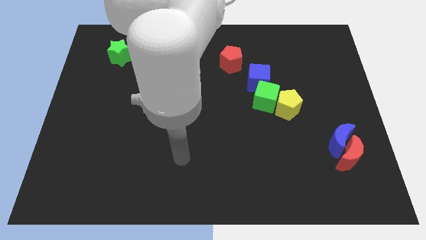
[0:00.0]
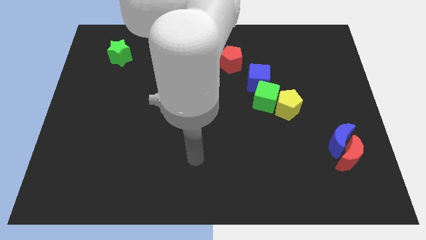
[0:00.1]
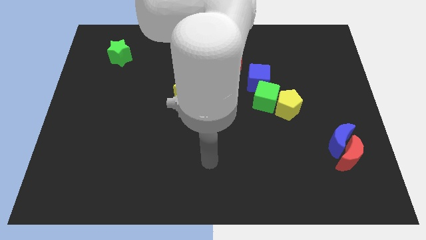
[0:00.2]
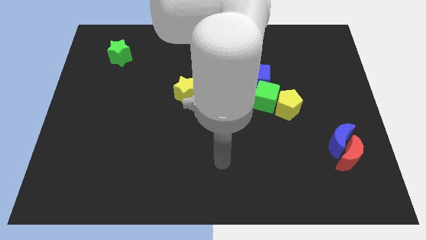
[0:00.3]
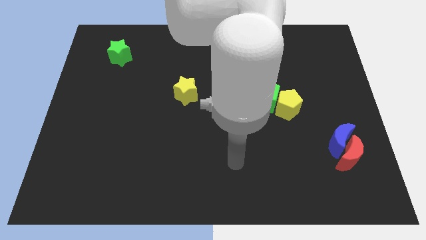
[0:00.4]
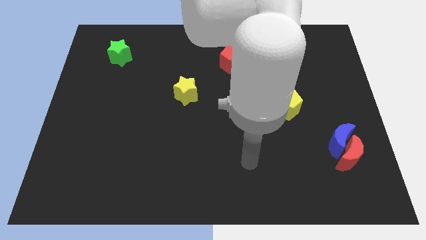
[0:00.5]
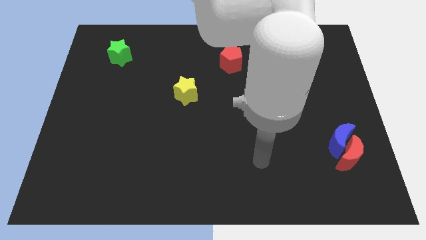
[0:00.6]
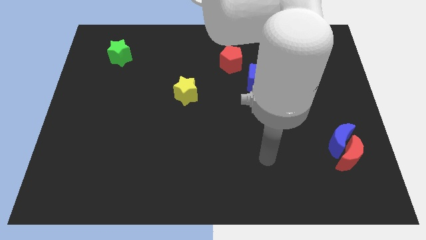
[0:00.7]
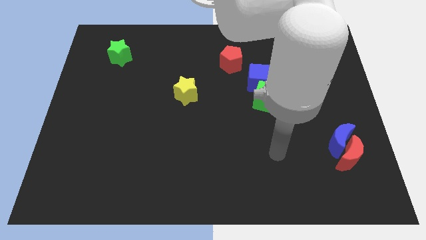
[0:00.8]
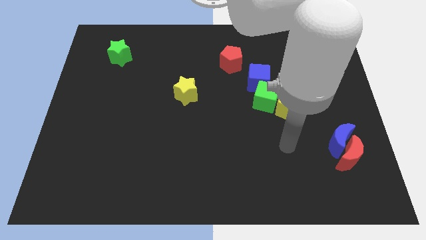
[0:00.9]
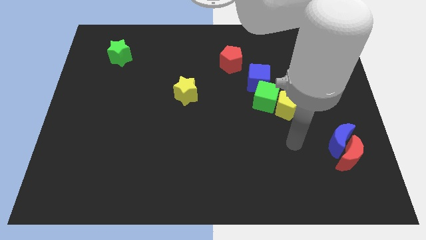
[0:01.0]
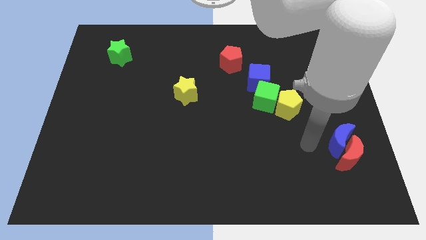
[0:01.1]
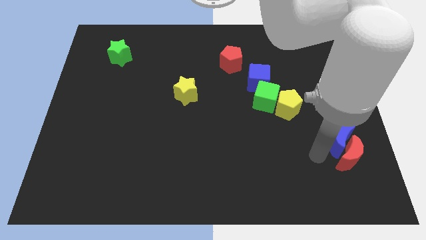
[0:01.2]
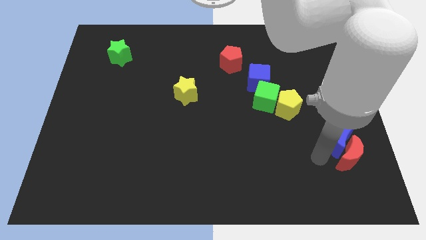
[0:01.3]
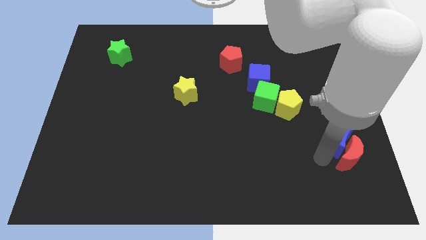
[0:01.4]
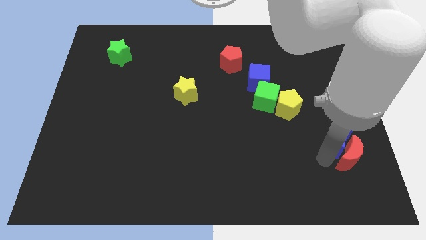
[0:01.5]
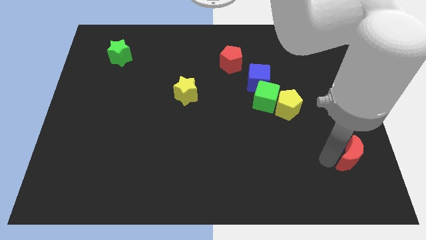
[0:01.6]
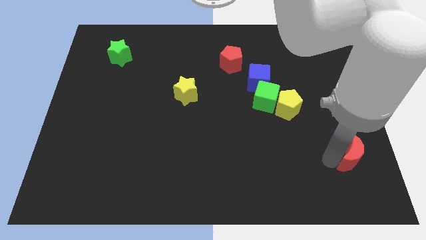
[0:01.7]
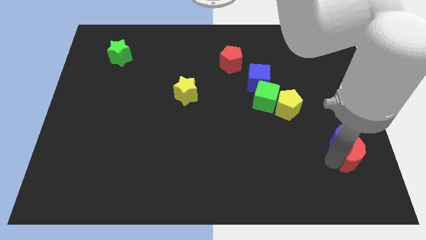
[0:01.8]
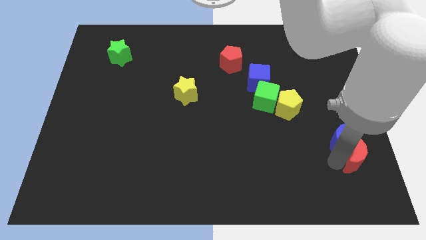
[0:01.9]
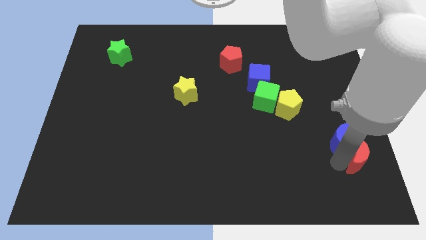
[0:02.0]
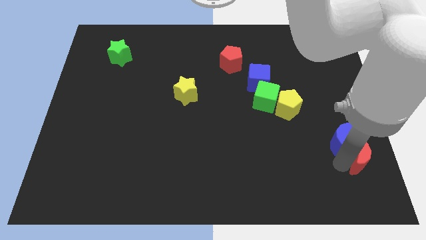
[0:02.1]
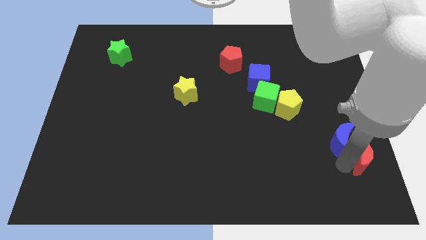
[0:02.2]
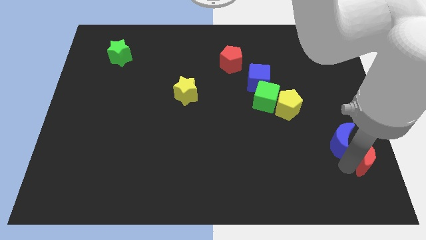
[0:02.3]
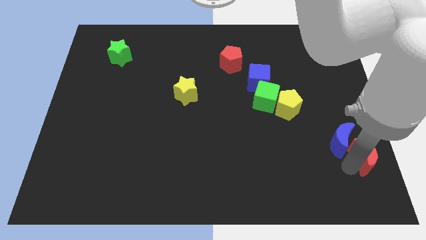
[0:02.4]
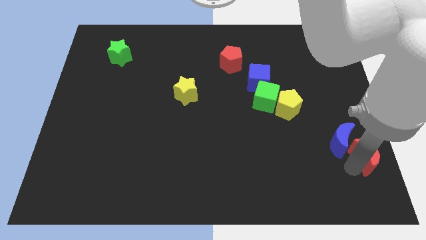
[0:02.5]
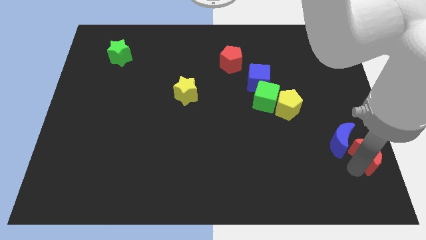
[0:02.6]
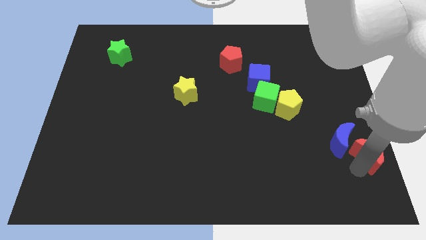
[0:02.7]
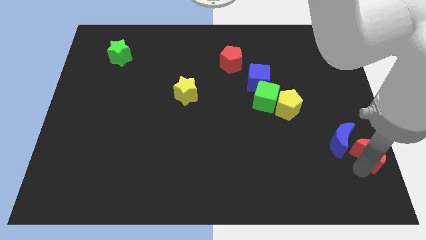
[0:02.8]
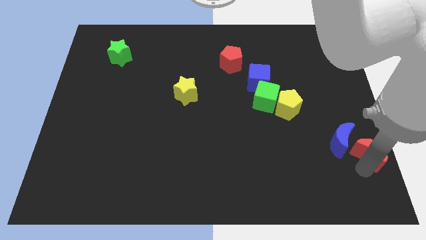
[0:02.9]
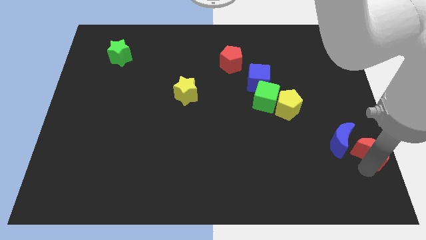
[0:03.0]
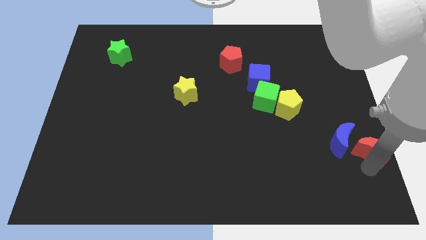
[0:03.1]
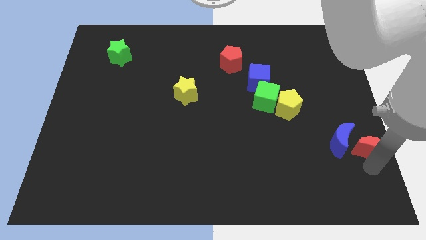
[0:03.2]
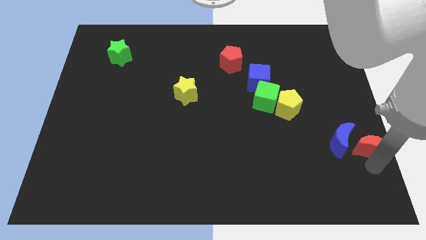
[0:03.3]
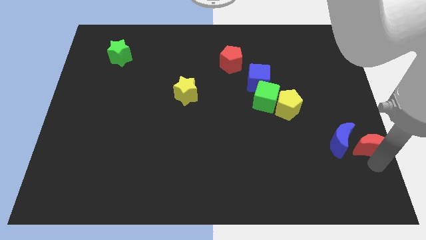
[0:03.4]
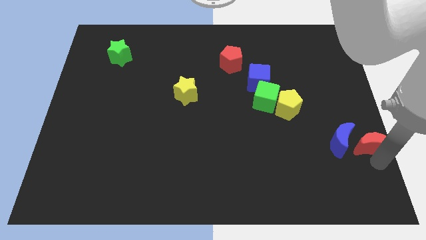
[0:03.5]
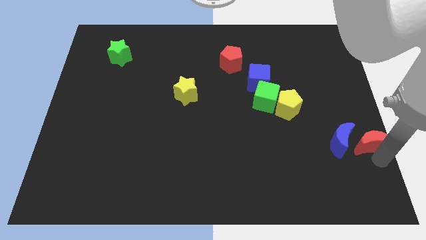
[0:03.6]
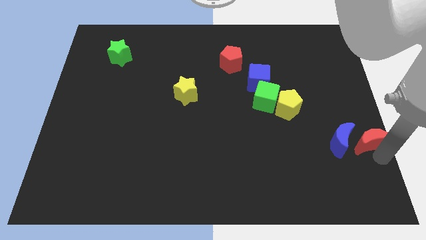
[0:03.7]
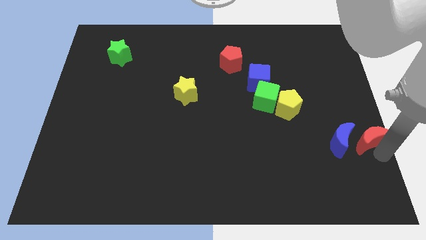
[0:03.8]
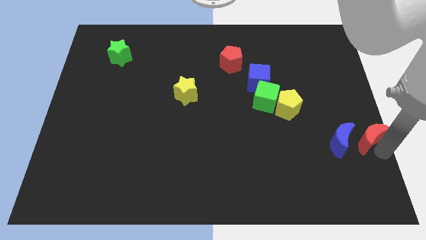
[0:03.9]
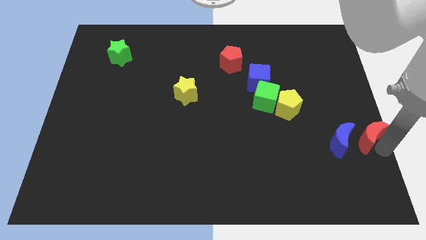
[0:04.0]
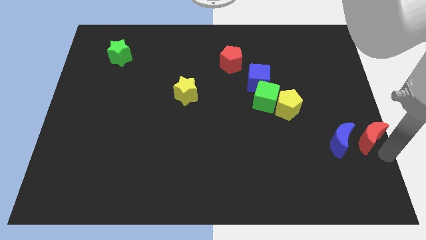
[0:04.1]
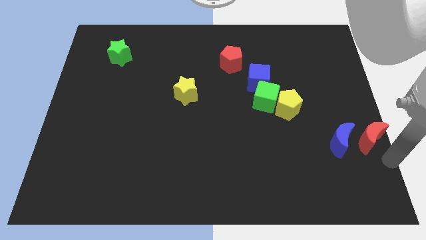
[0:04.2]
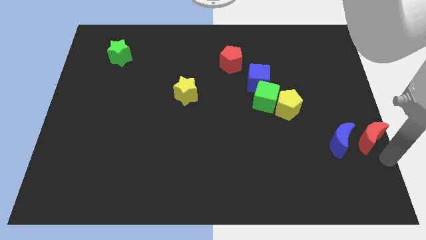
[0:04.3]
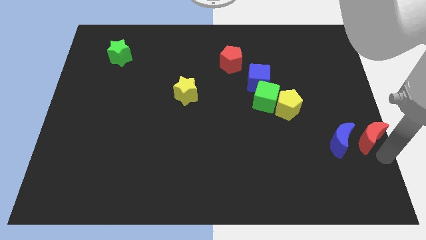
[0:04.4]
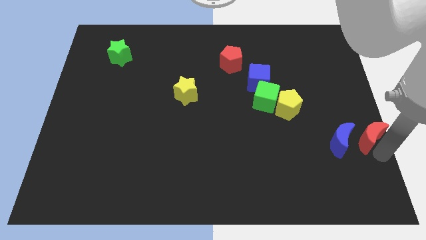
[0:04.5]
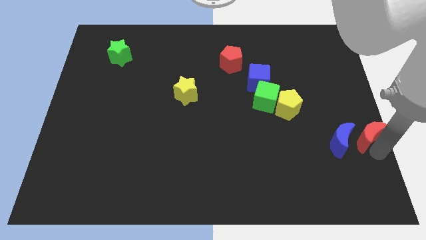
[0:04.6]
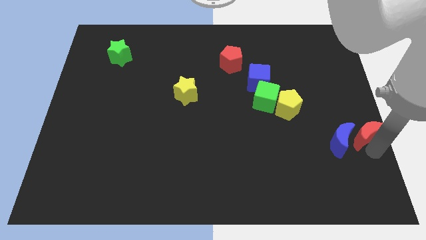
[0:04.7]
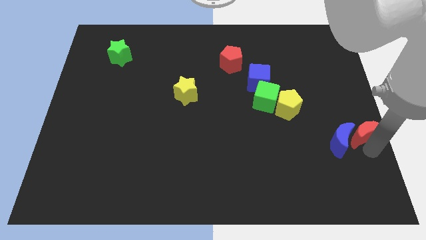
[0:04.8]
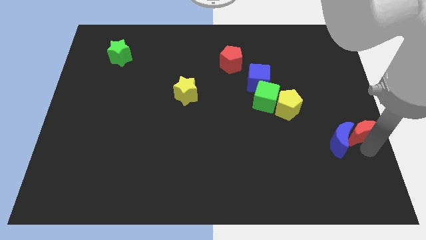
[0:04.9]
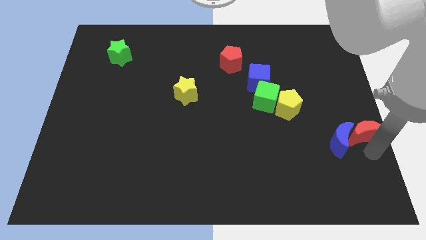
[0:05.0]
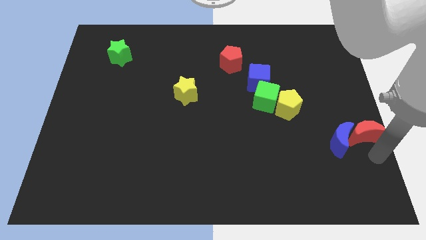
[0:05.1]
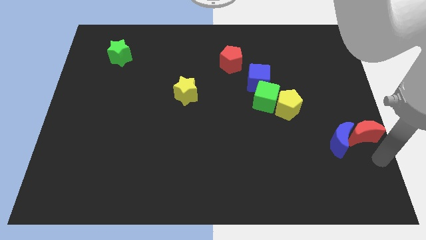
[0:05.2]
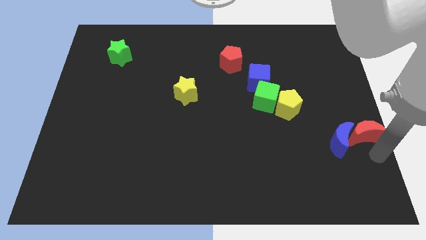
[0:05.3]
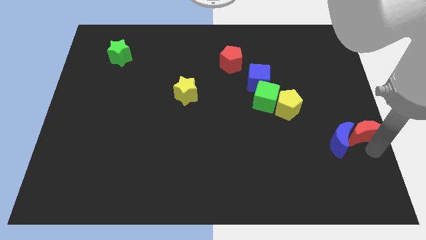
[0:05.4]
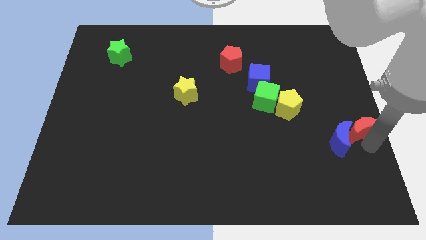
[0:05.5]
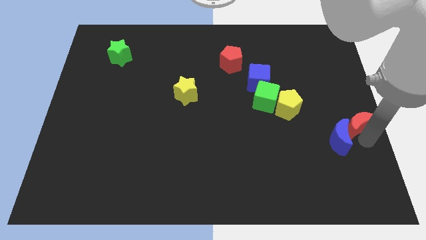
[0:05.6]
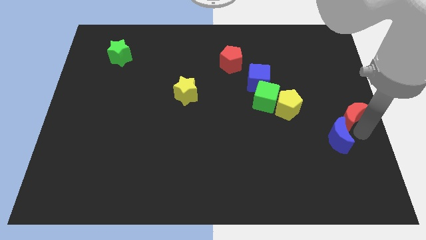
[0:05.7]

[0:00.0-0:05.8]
slide the red moon to the top side of the blue moon

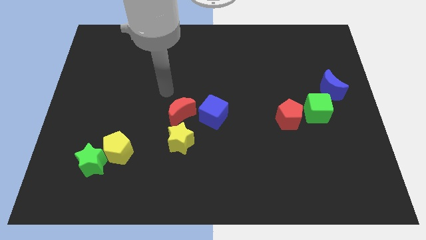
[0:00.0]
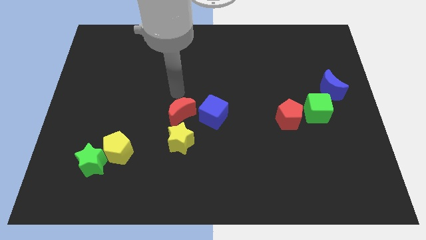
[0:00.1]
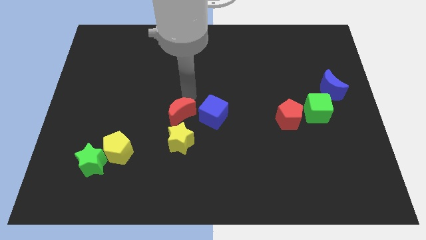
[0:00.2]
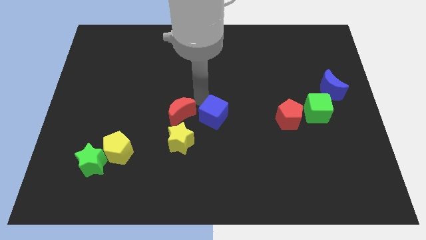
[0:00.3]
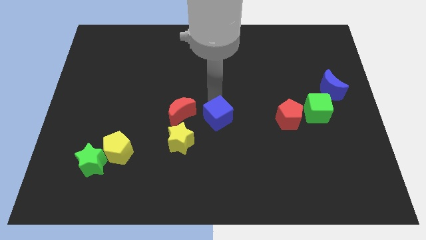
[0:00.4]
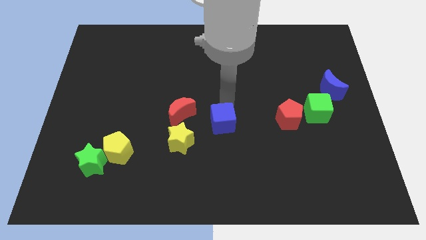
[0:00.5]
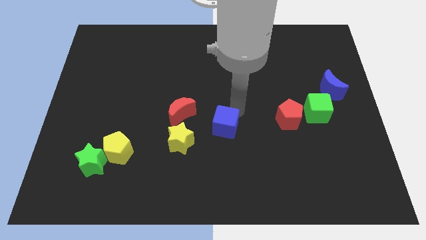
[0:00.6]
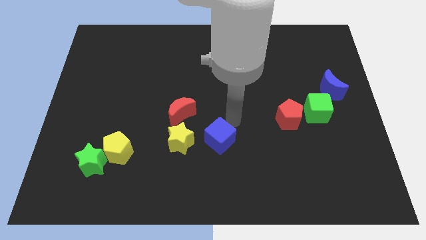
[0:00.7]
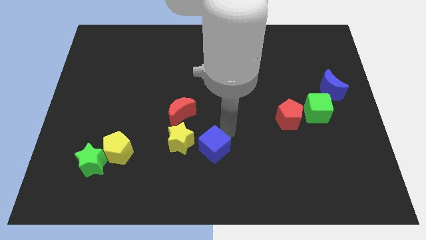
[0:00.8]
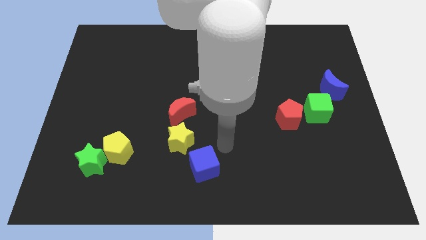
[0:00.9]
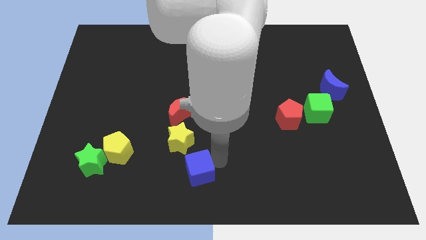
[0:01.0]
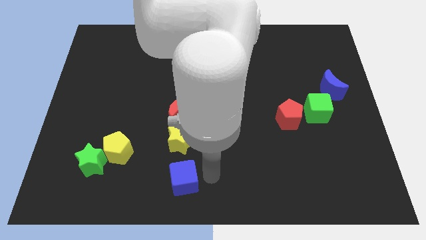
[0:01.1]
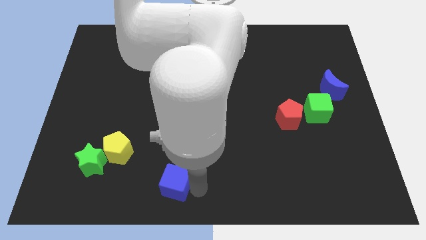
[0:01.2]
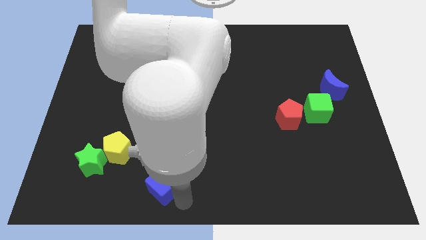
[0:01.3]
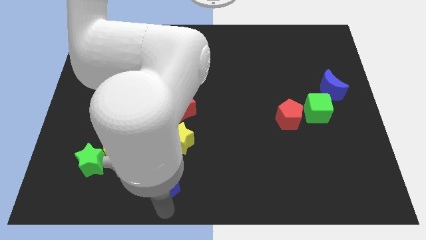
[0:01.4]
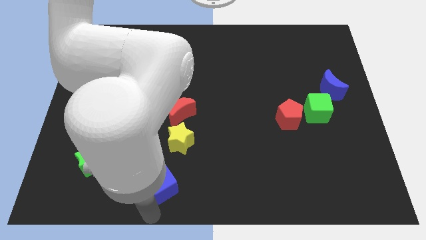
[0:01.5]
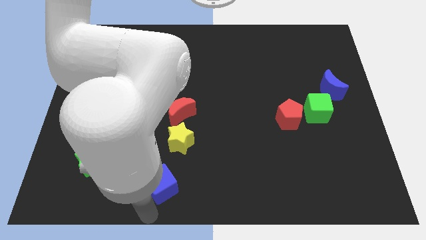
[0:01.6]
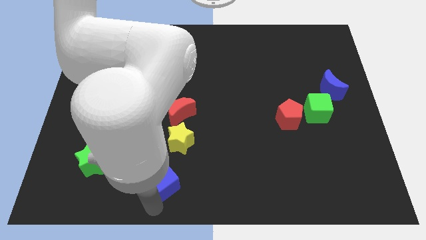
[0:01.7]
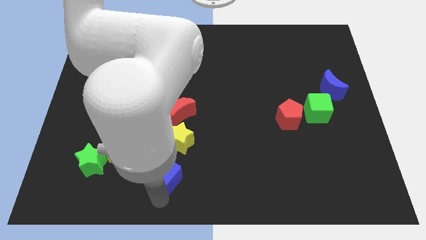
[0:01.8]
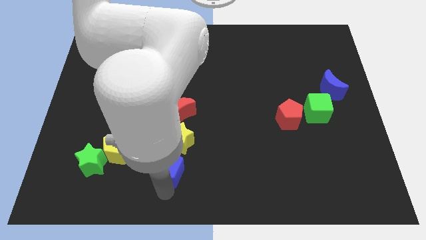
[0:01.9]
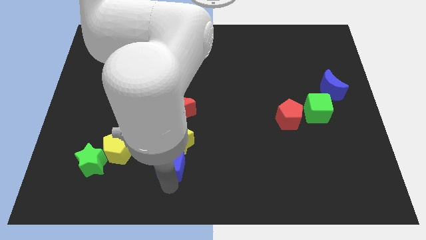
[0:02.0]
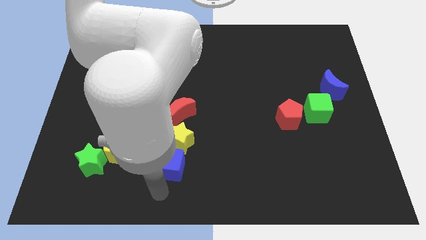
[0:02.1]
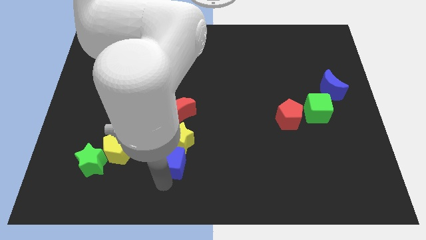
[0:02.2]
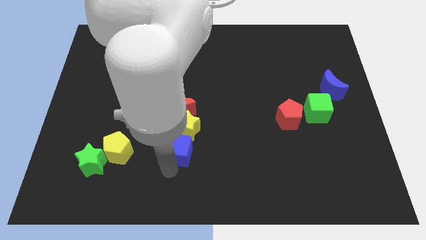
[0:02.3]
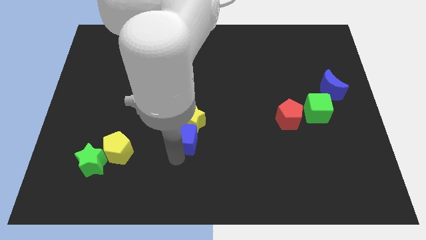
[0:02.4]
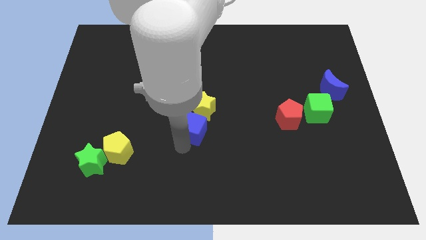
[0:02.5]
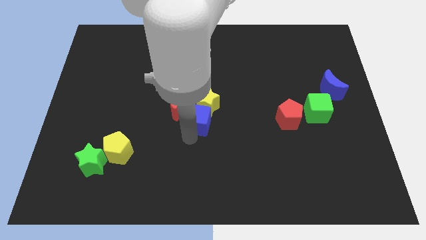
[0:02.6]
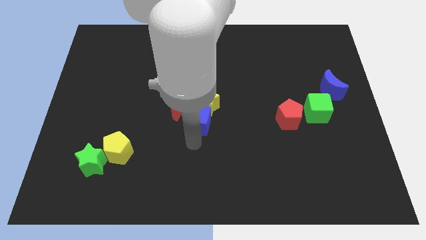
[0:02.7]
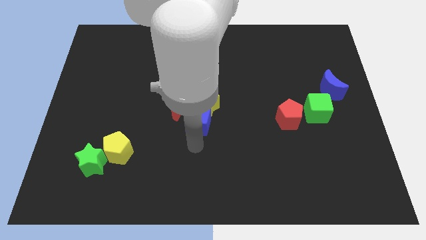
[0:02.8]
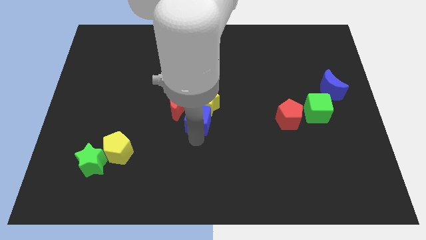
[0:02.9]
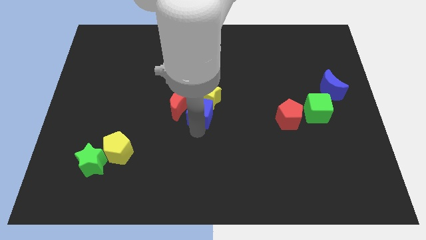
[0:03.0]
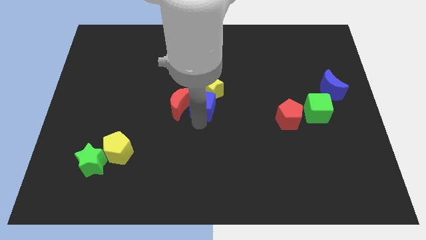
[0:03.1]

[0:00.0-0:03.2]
move the blue cube diagonally up and to the right of the red moon
